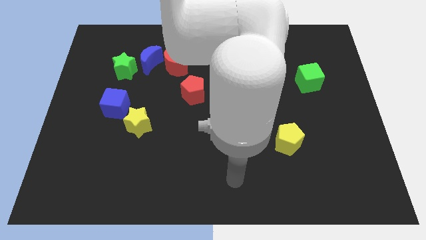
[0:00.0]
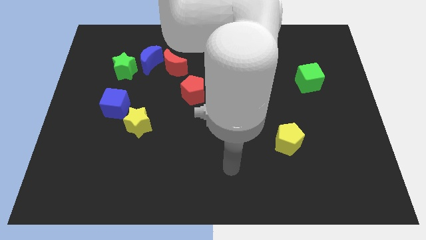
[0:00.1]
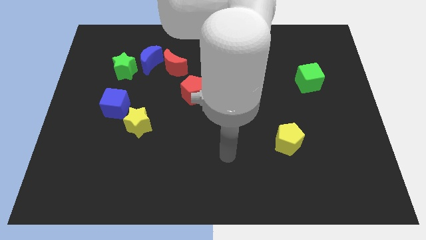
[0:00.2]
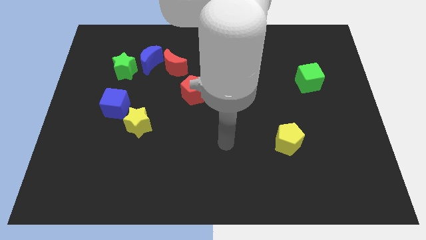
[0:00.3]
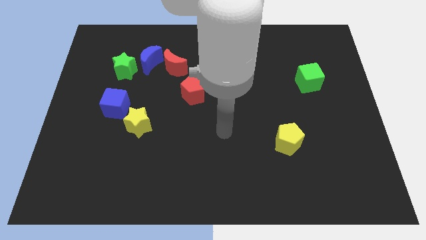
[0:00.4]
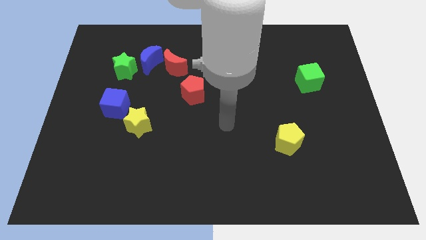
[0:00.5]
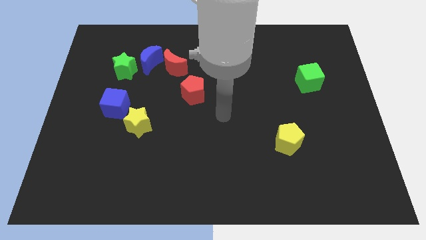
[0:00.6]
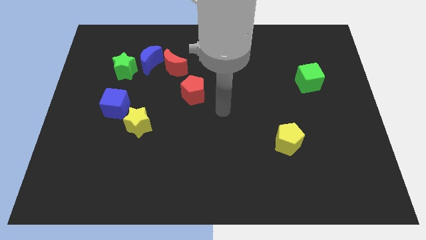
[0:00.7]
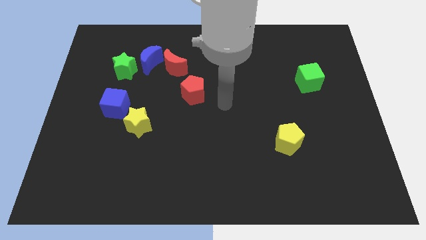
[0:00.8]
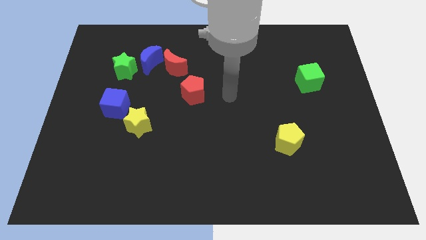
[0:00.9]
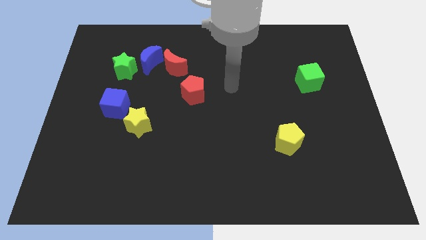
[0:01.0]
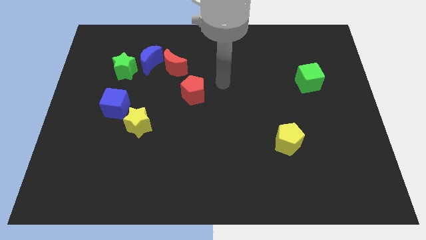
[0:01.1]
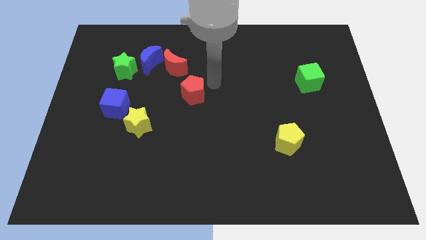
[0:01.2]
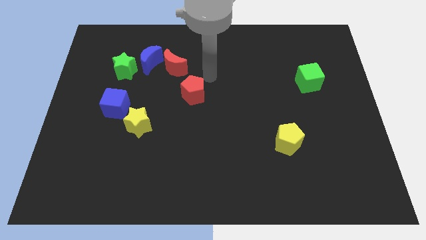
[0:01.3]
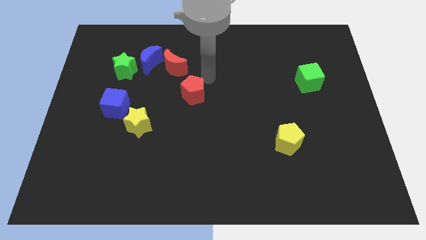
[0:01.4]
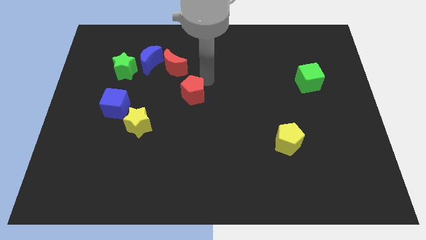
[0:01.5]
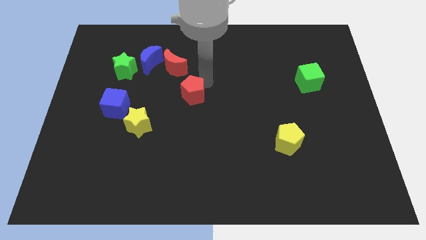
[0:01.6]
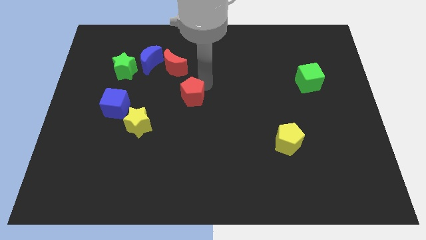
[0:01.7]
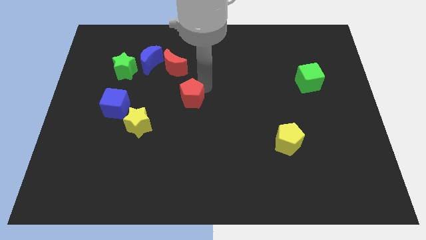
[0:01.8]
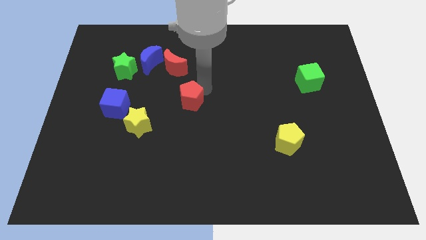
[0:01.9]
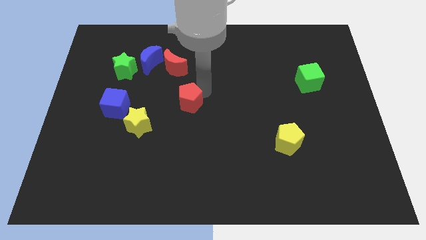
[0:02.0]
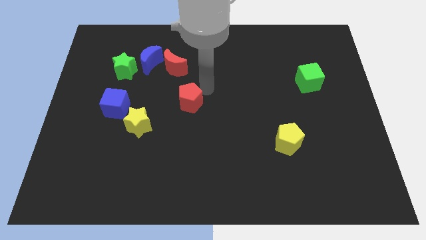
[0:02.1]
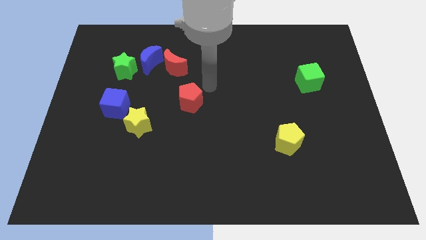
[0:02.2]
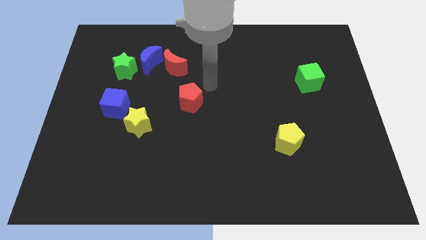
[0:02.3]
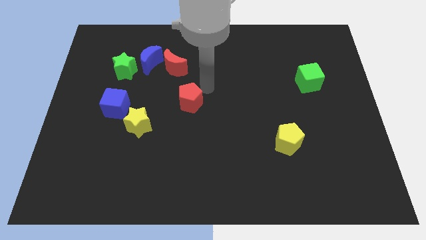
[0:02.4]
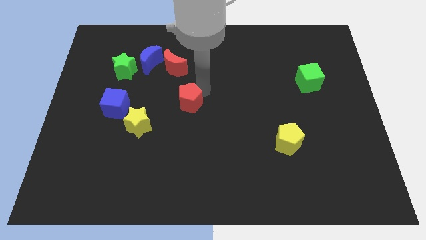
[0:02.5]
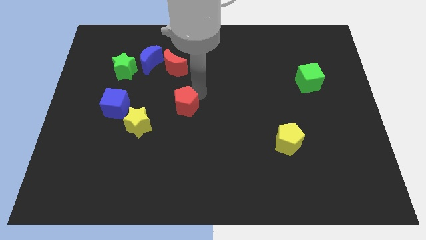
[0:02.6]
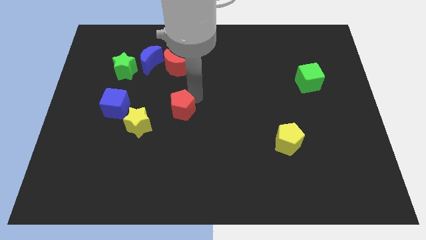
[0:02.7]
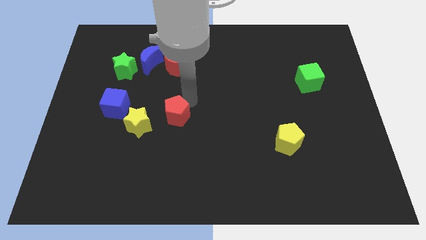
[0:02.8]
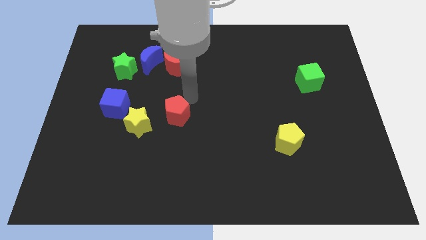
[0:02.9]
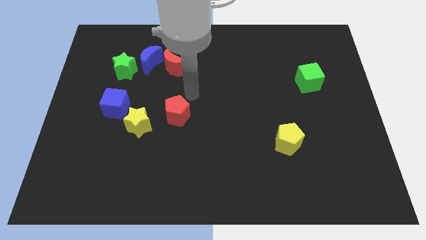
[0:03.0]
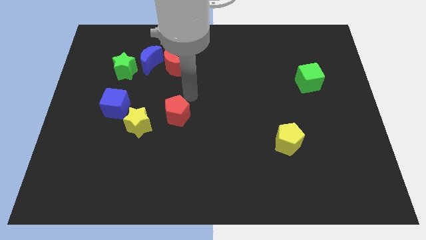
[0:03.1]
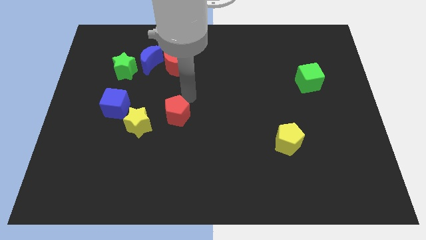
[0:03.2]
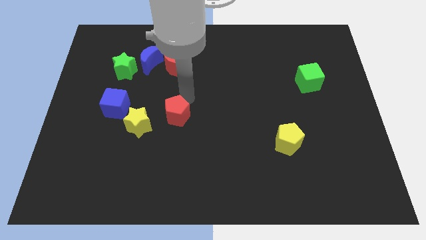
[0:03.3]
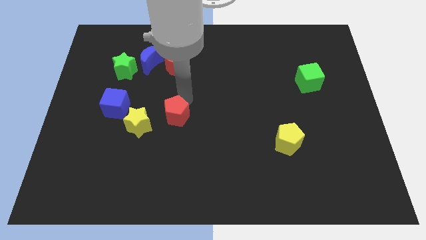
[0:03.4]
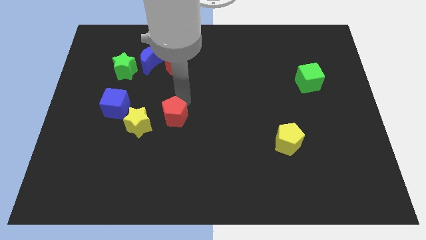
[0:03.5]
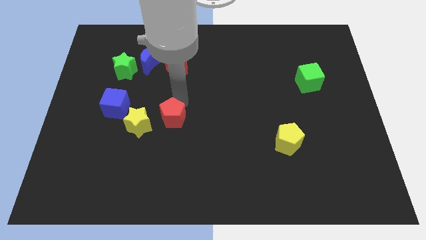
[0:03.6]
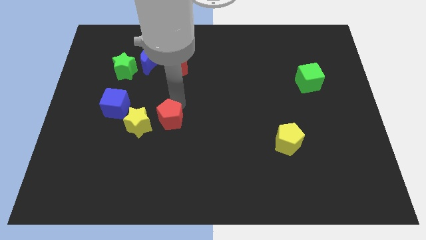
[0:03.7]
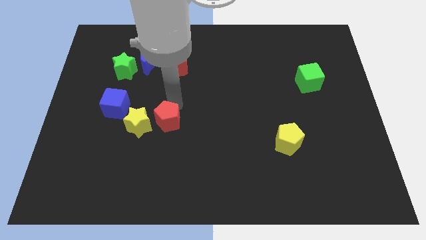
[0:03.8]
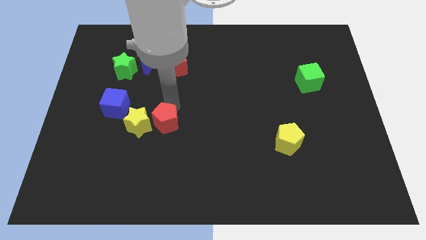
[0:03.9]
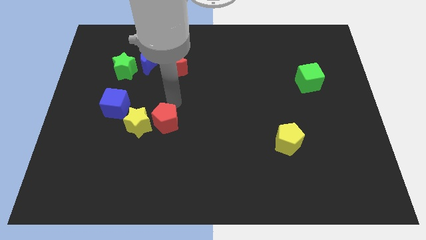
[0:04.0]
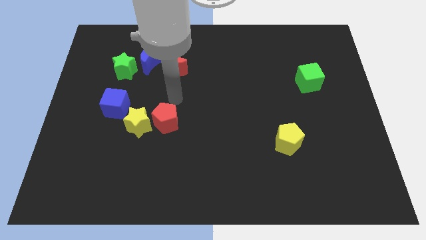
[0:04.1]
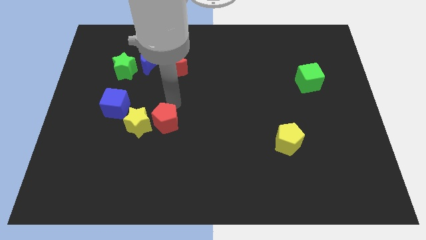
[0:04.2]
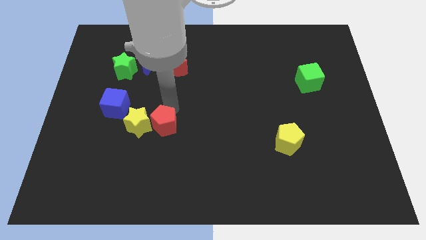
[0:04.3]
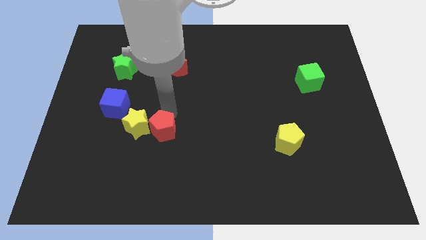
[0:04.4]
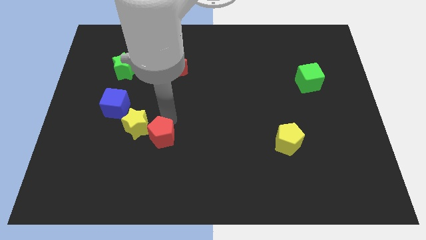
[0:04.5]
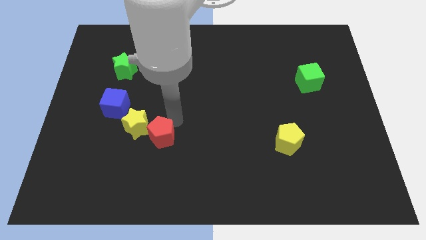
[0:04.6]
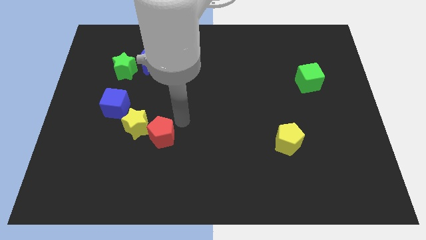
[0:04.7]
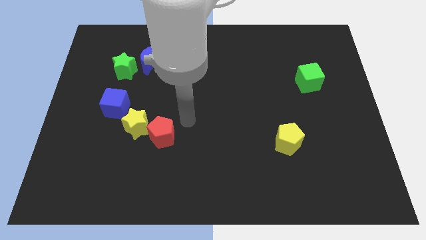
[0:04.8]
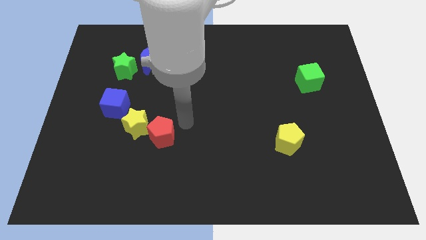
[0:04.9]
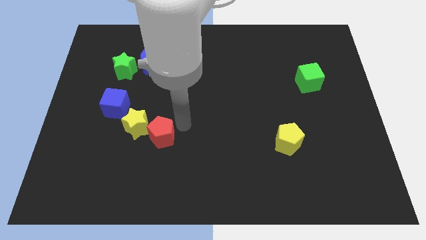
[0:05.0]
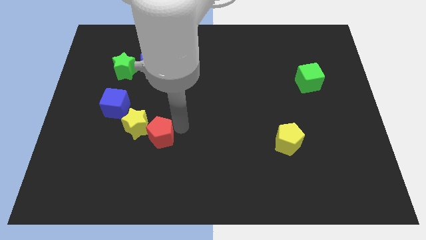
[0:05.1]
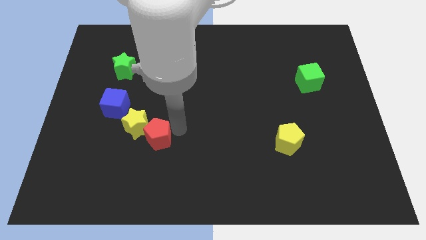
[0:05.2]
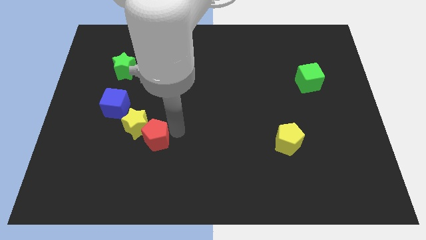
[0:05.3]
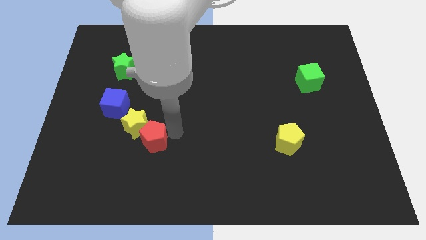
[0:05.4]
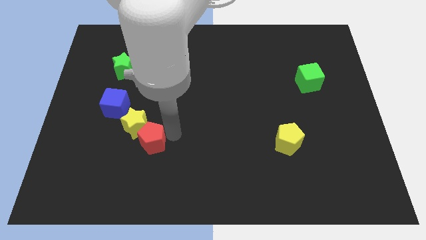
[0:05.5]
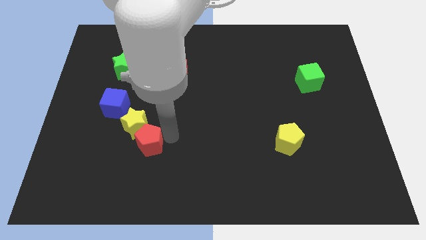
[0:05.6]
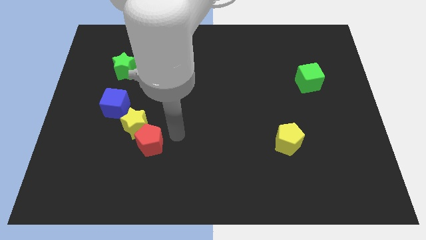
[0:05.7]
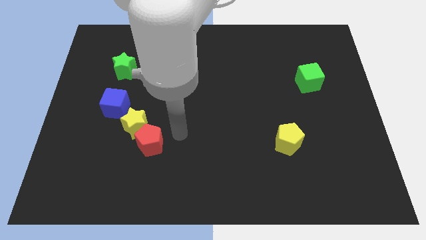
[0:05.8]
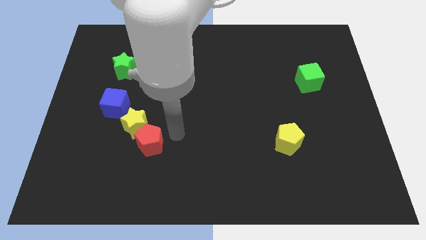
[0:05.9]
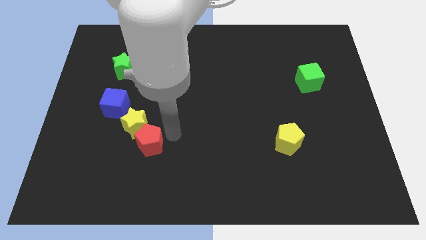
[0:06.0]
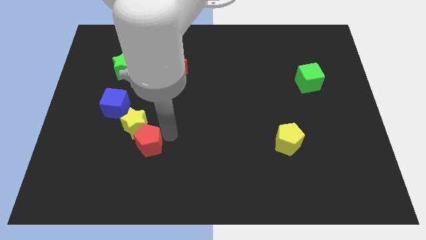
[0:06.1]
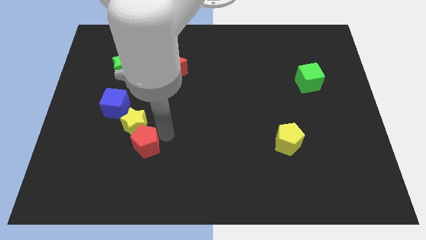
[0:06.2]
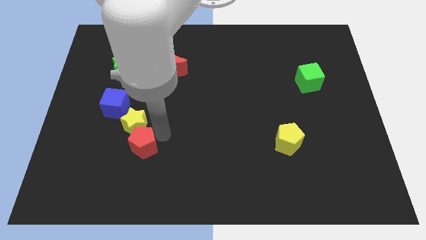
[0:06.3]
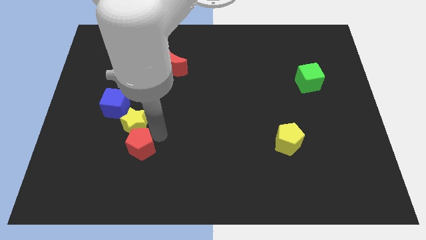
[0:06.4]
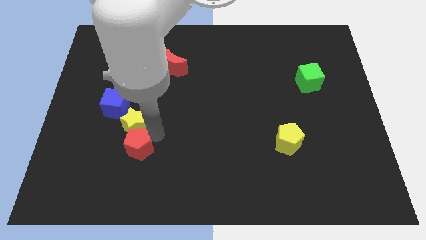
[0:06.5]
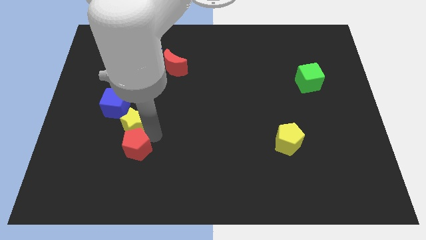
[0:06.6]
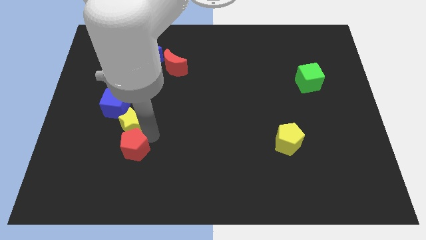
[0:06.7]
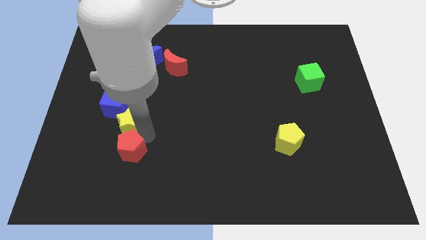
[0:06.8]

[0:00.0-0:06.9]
push the red pentagon downwards and to the left diagonally

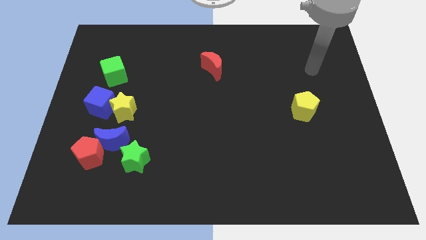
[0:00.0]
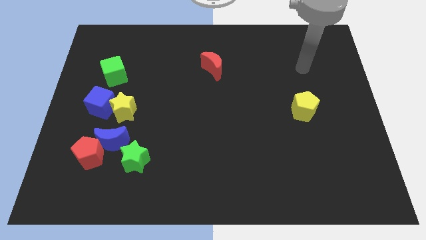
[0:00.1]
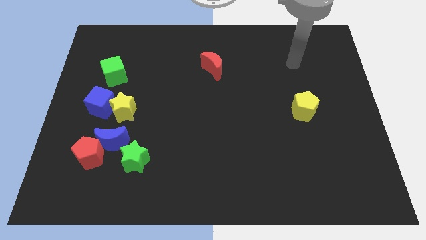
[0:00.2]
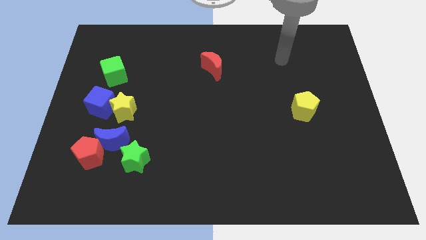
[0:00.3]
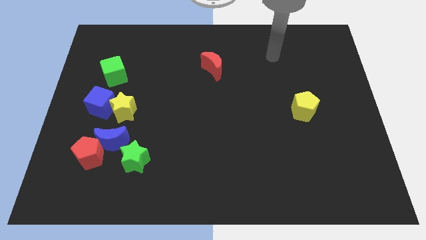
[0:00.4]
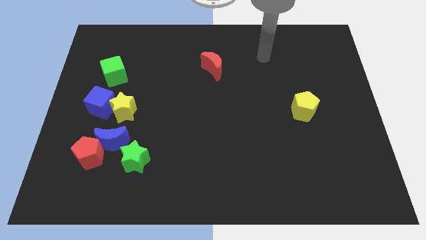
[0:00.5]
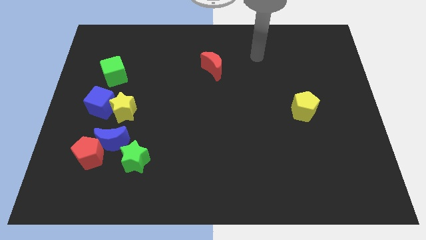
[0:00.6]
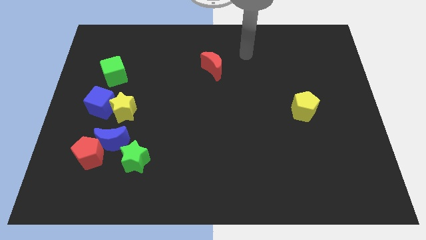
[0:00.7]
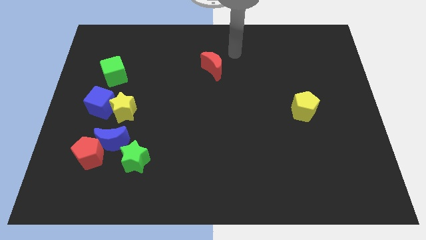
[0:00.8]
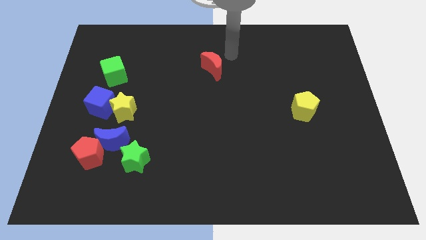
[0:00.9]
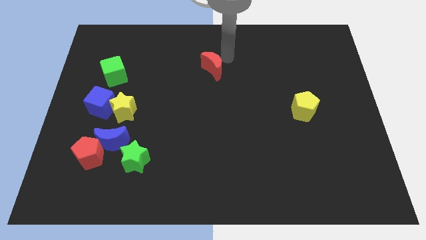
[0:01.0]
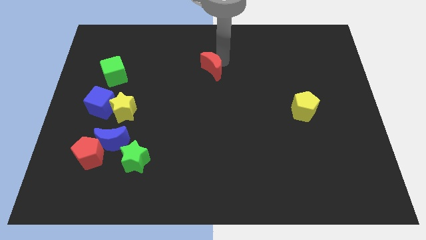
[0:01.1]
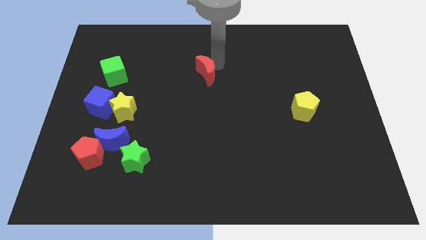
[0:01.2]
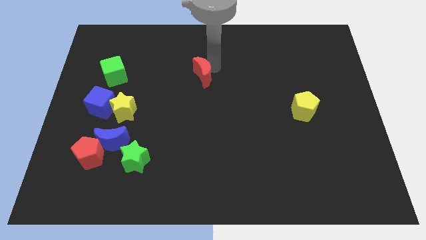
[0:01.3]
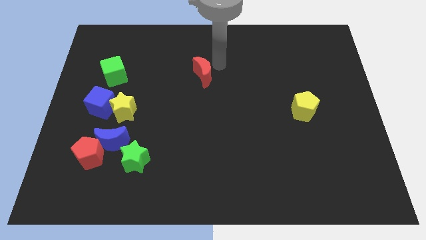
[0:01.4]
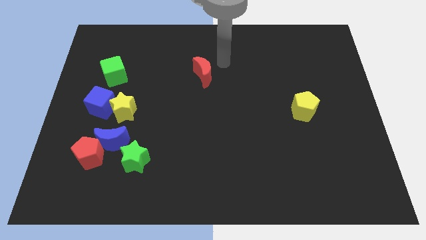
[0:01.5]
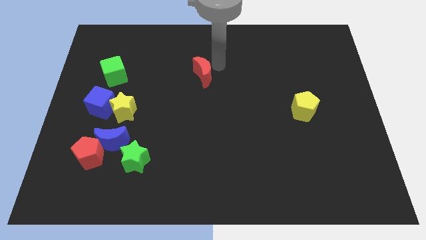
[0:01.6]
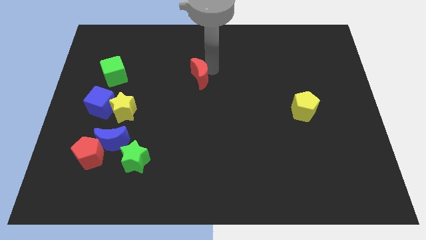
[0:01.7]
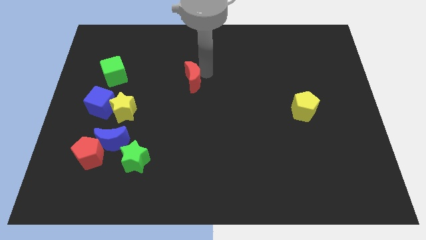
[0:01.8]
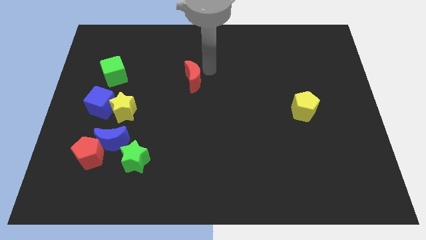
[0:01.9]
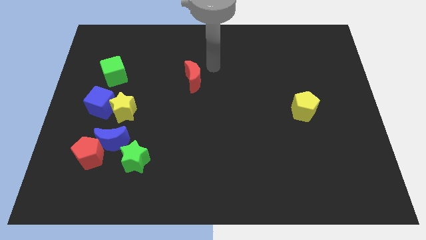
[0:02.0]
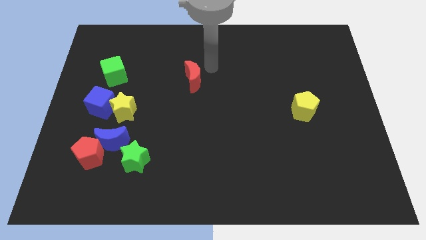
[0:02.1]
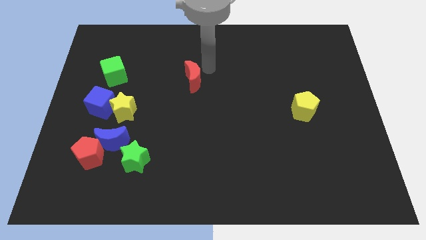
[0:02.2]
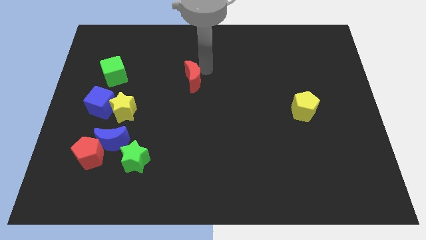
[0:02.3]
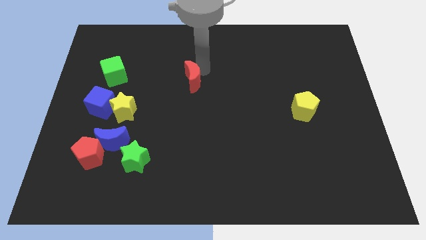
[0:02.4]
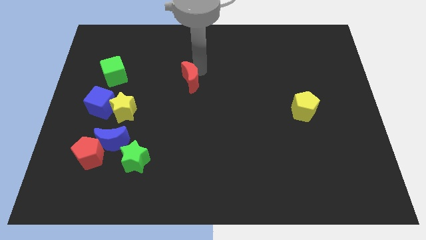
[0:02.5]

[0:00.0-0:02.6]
slightly slide the red moon downwards and to the left diagonally
